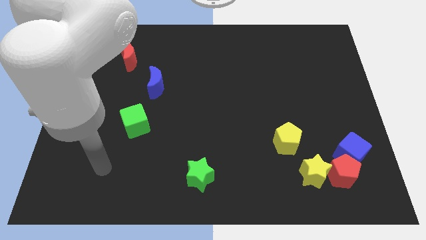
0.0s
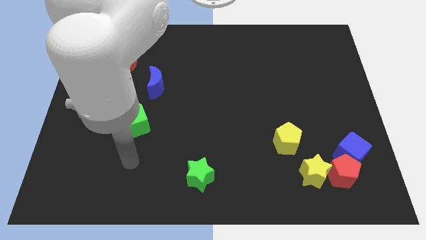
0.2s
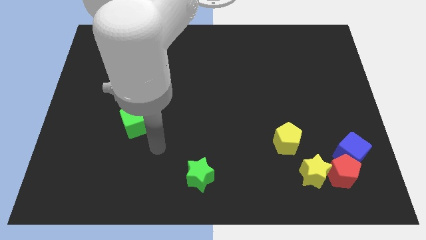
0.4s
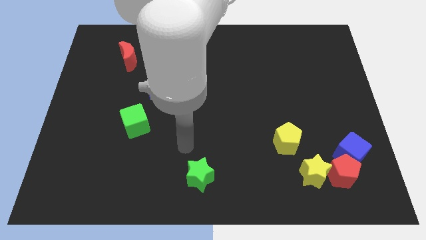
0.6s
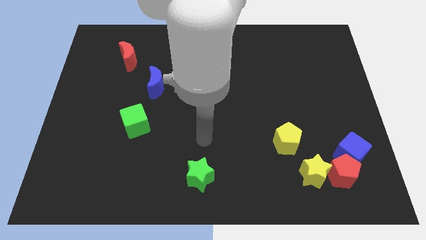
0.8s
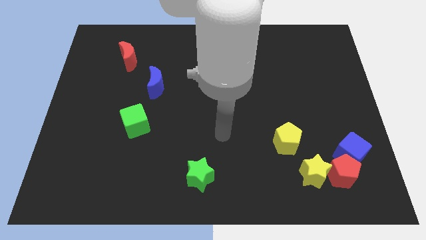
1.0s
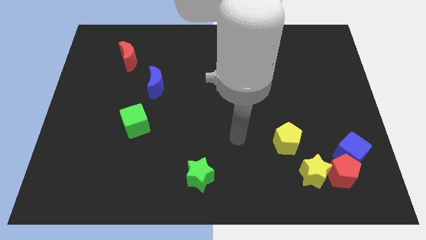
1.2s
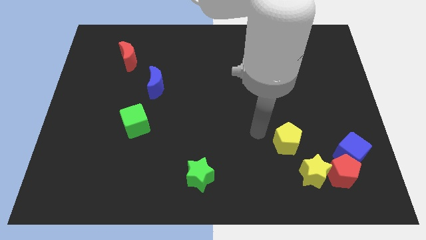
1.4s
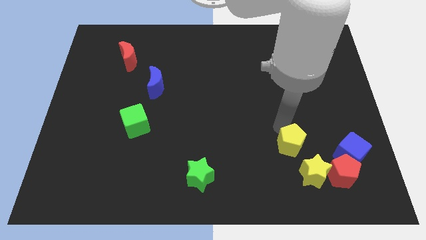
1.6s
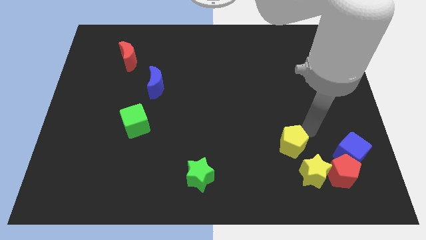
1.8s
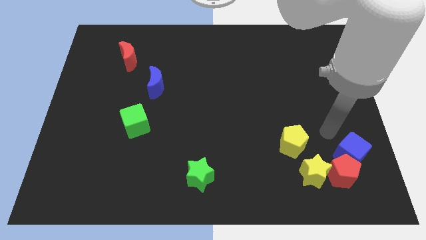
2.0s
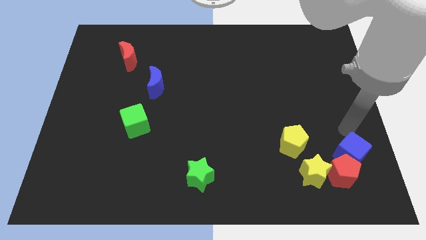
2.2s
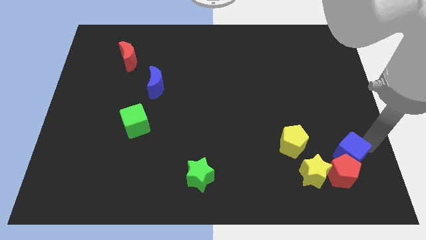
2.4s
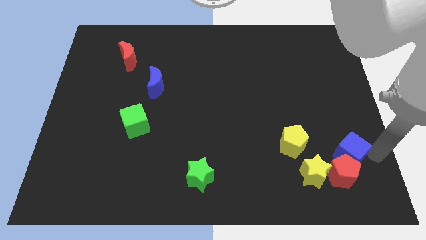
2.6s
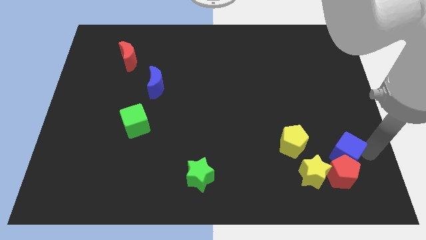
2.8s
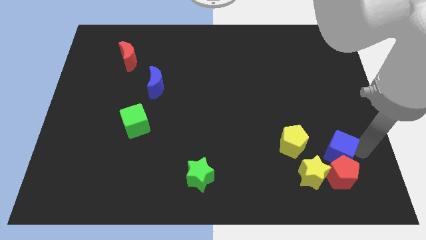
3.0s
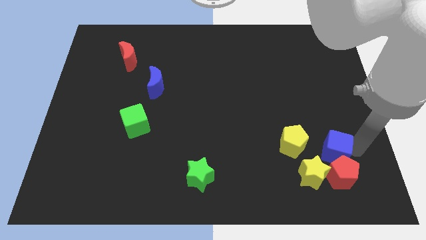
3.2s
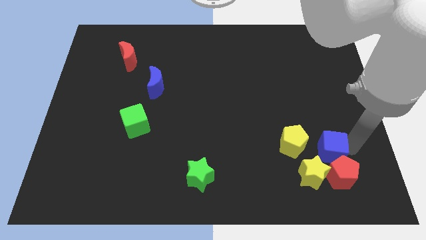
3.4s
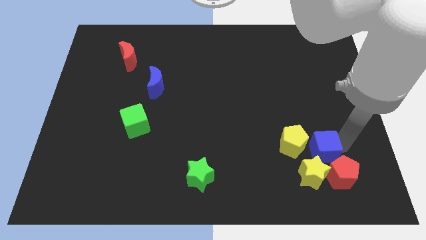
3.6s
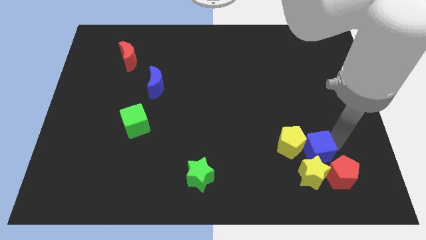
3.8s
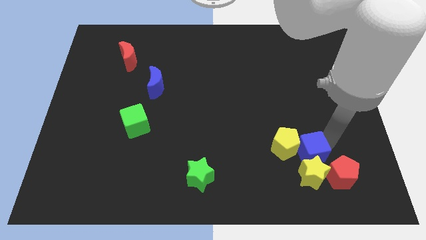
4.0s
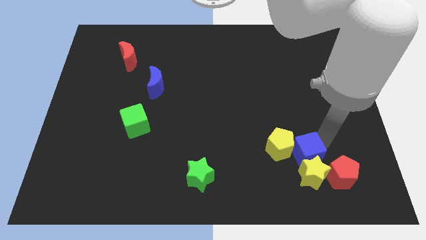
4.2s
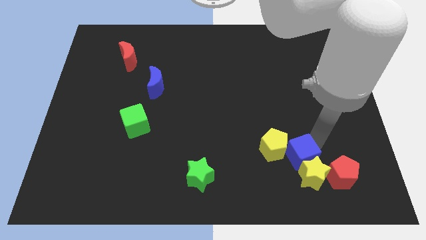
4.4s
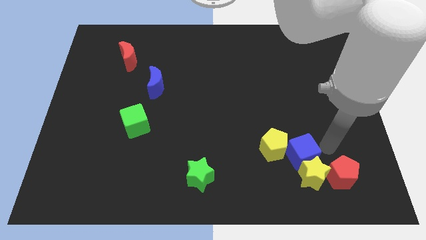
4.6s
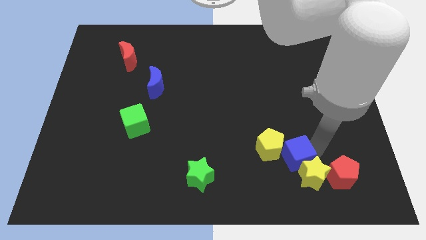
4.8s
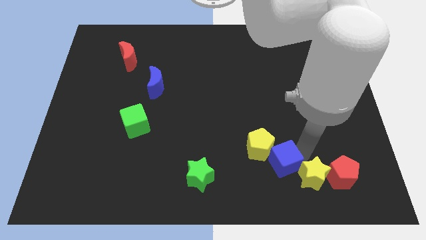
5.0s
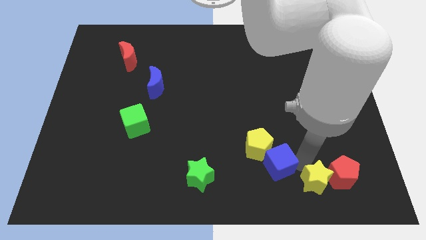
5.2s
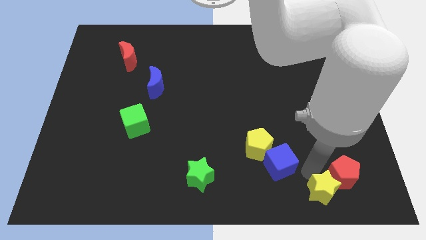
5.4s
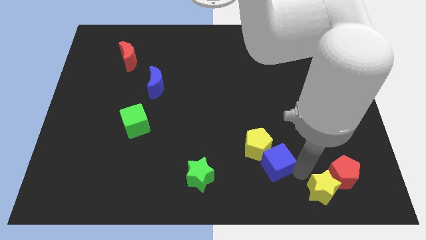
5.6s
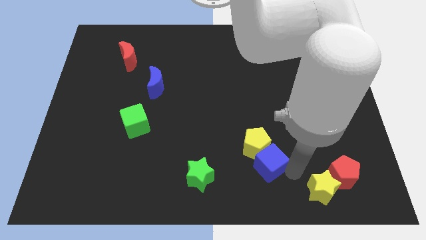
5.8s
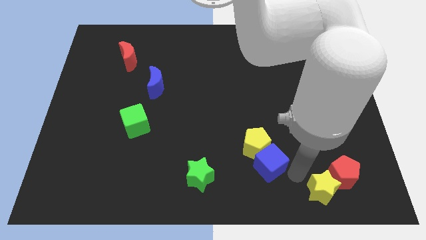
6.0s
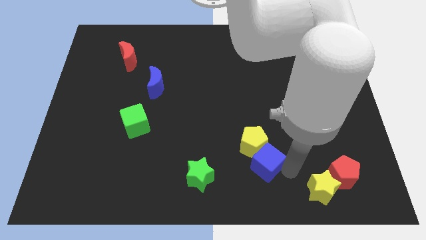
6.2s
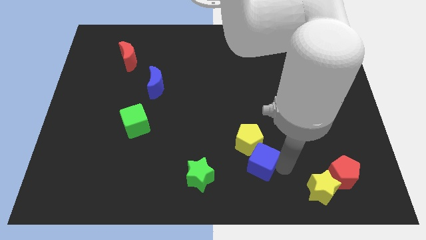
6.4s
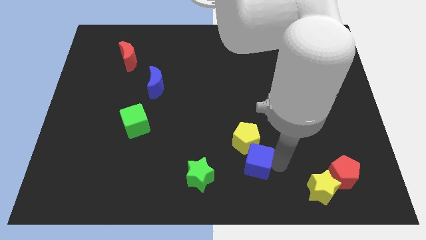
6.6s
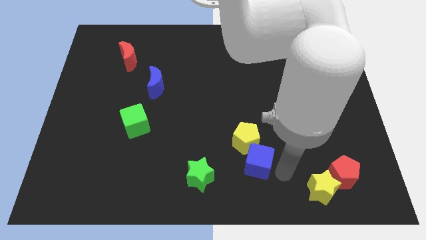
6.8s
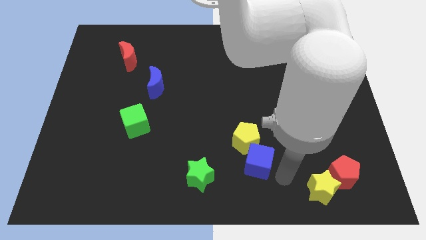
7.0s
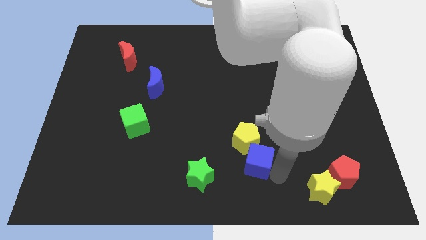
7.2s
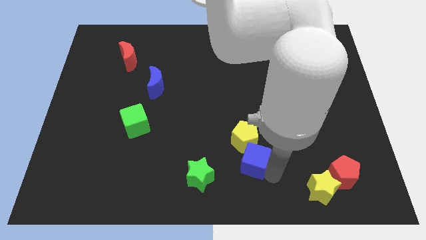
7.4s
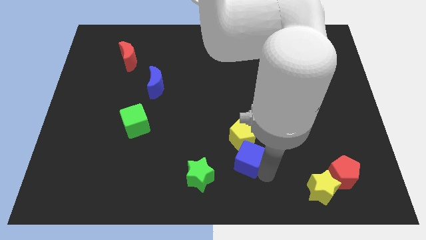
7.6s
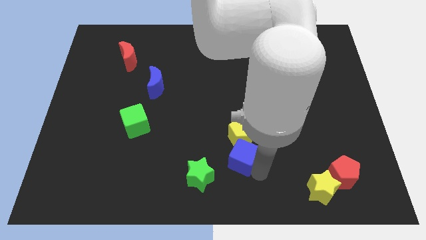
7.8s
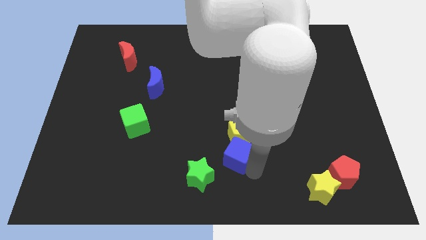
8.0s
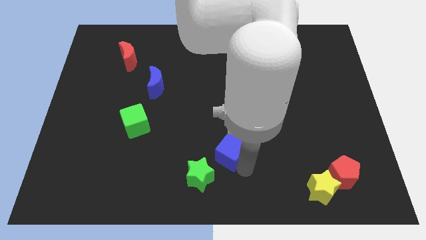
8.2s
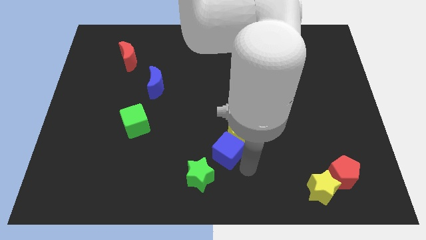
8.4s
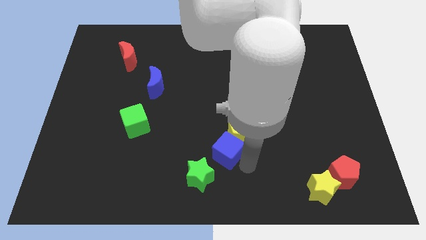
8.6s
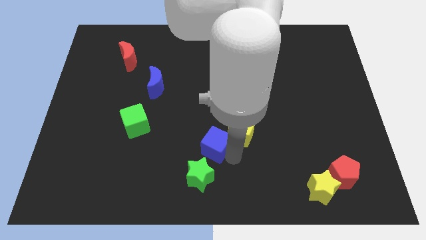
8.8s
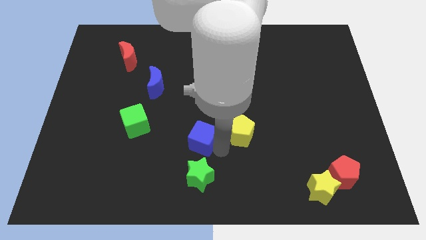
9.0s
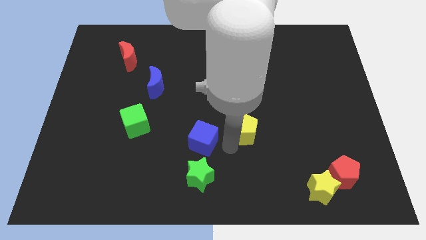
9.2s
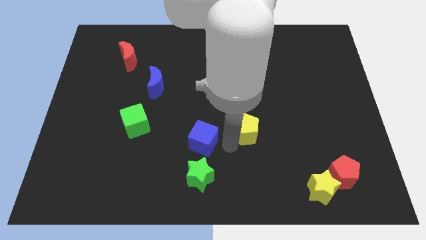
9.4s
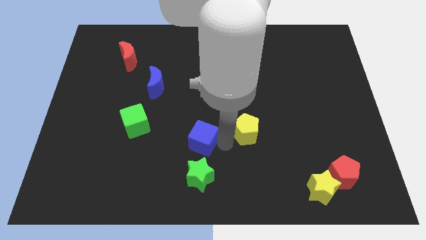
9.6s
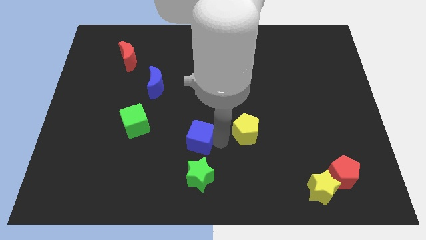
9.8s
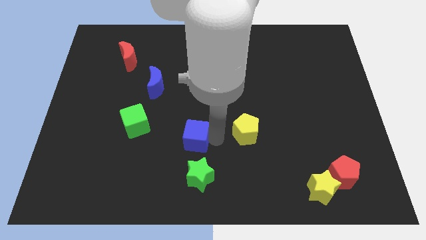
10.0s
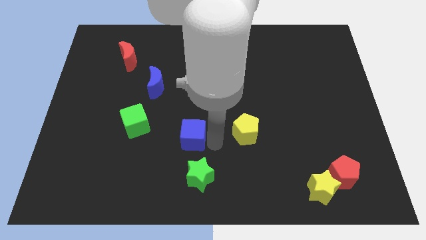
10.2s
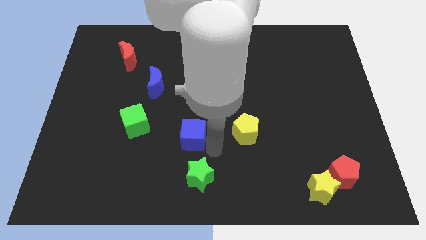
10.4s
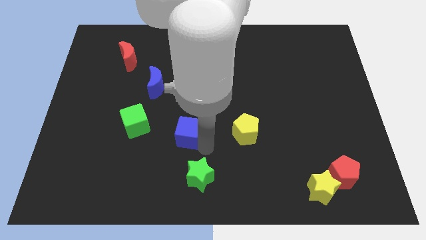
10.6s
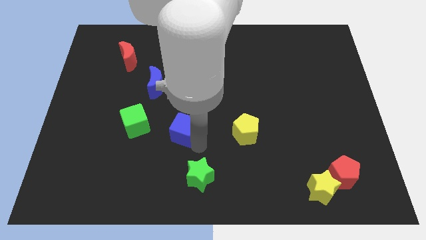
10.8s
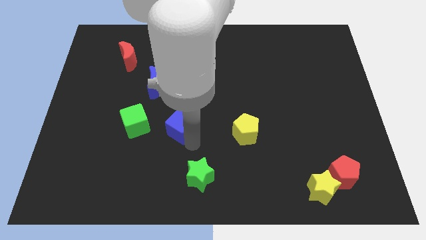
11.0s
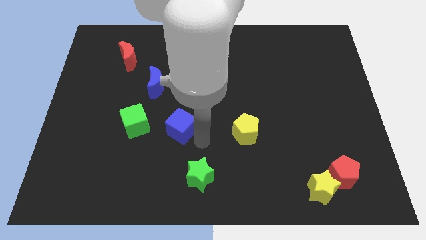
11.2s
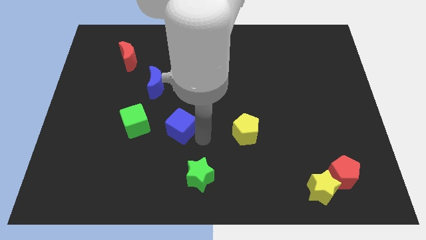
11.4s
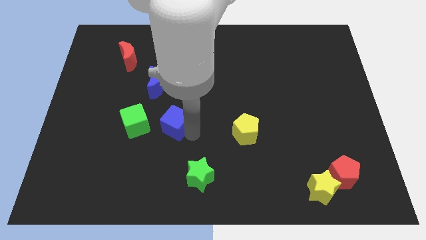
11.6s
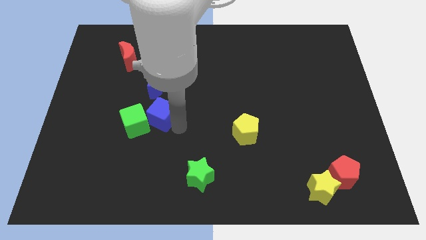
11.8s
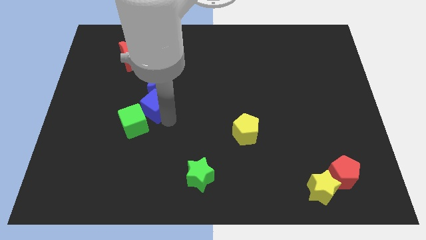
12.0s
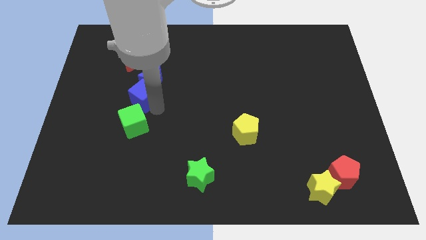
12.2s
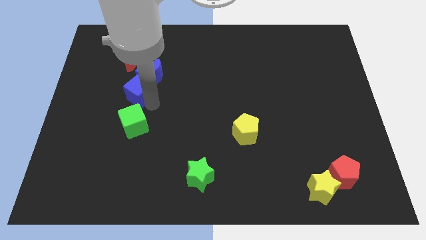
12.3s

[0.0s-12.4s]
slide the blue cube below the red moon

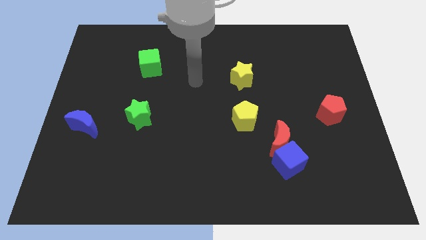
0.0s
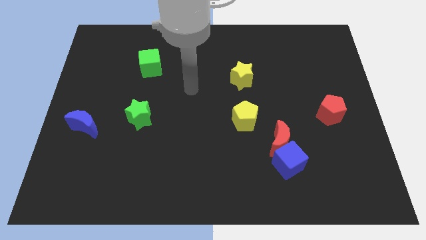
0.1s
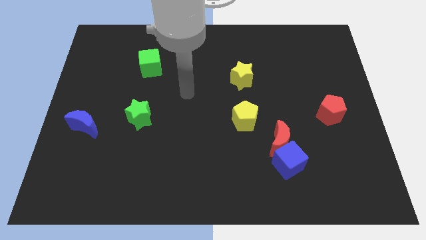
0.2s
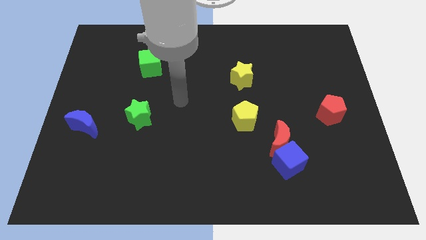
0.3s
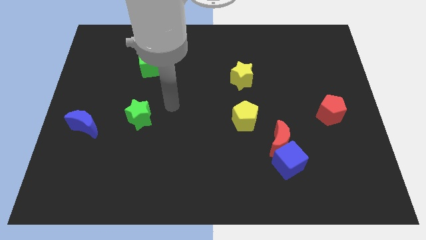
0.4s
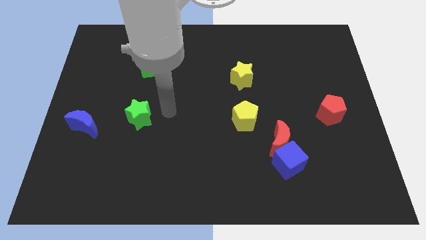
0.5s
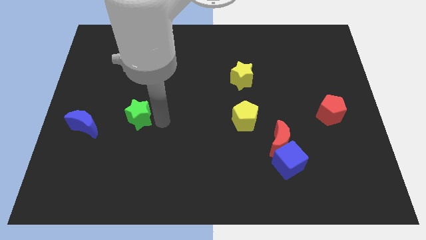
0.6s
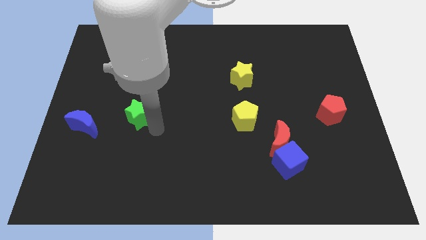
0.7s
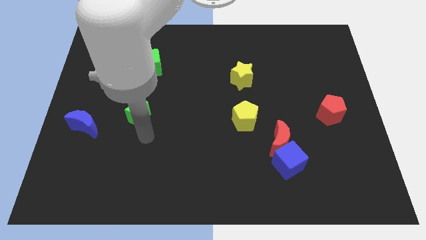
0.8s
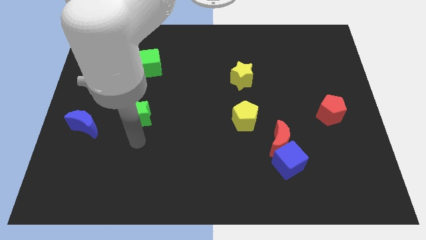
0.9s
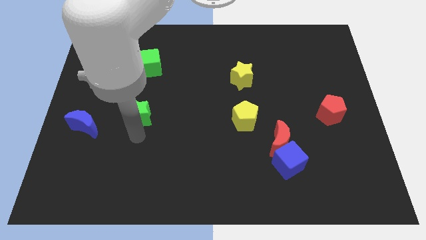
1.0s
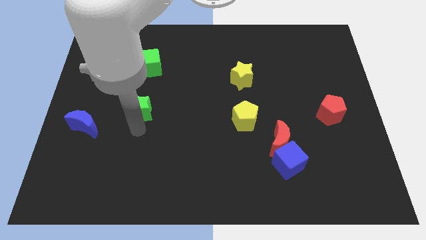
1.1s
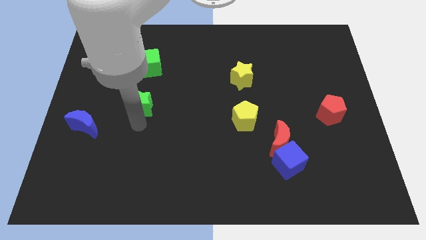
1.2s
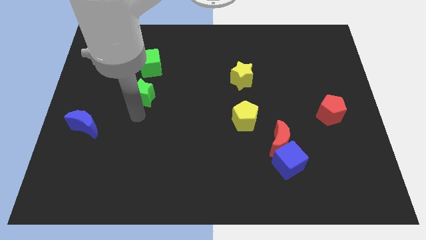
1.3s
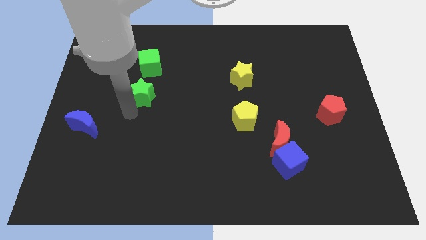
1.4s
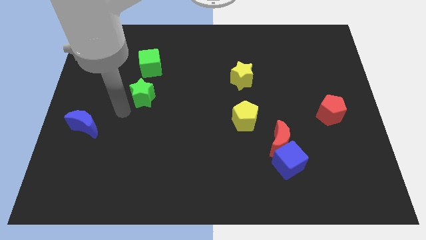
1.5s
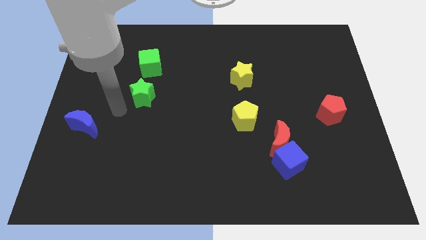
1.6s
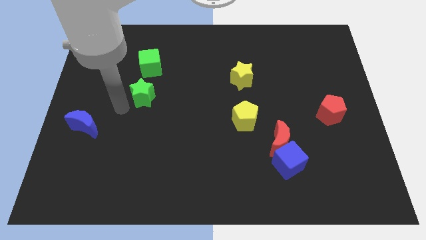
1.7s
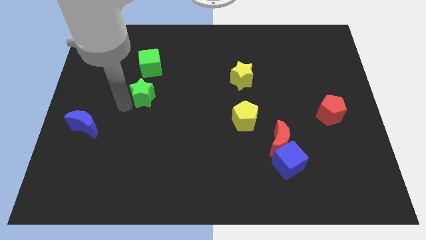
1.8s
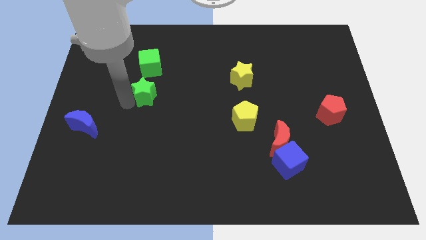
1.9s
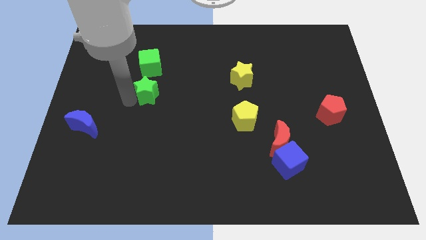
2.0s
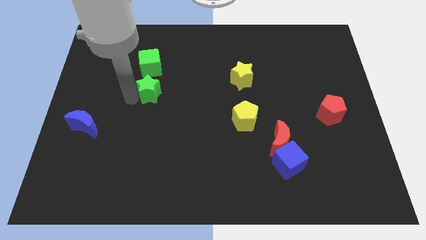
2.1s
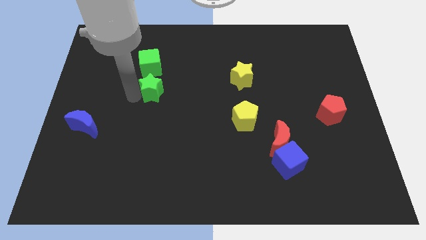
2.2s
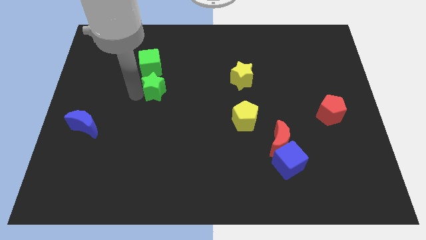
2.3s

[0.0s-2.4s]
move the green star to the bottom right of the green cube
